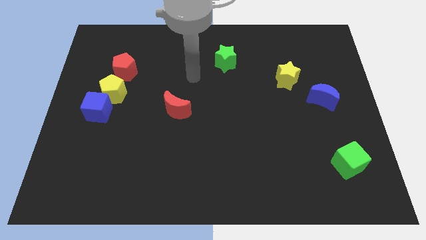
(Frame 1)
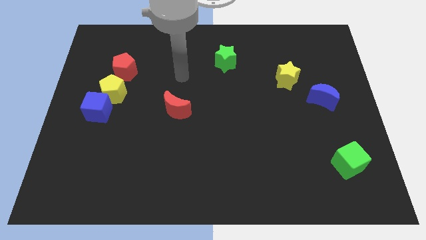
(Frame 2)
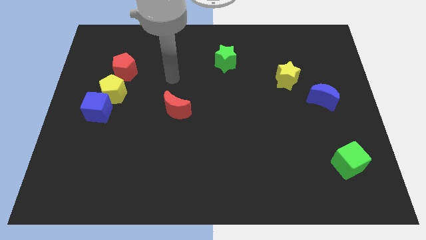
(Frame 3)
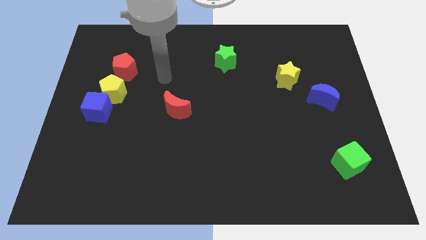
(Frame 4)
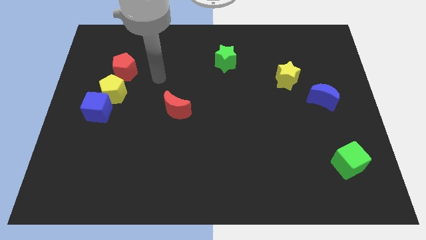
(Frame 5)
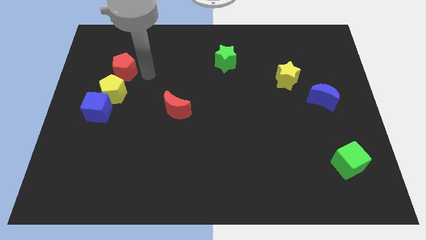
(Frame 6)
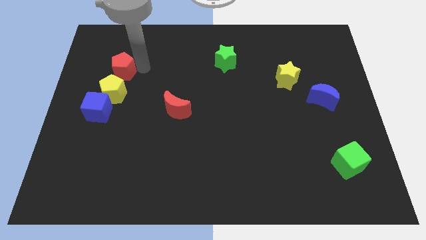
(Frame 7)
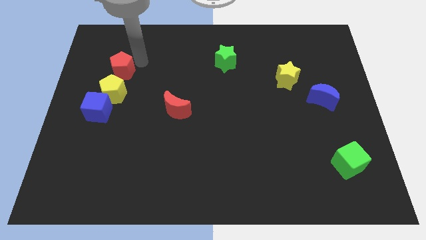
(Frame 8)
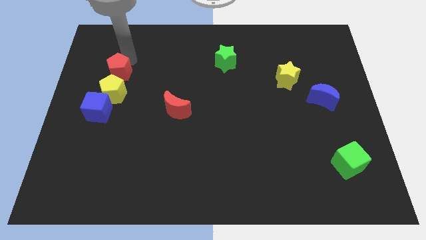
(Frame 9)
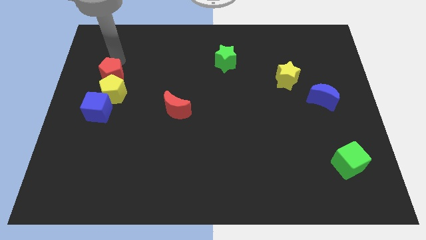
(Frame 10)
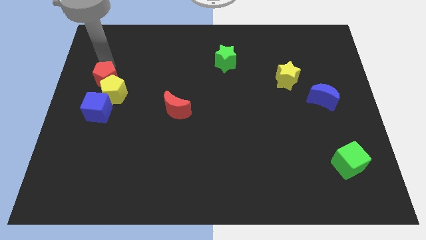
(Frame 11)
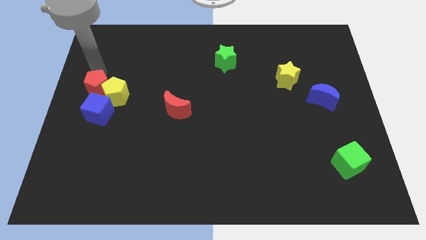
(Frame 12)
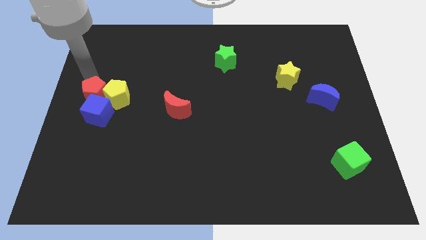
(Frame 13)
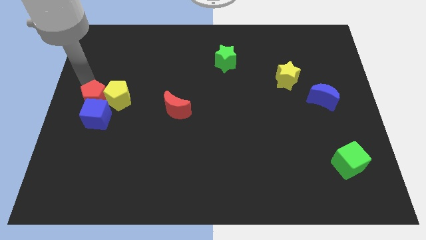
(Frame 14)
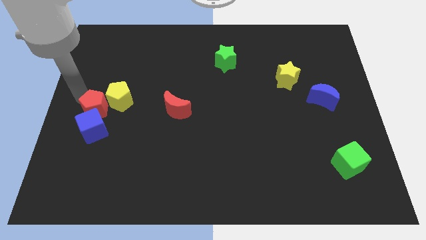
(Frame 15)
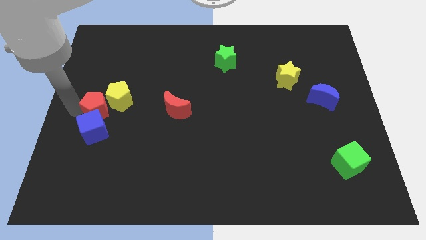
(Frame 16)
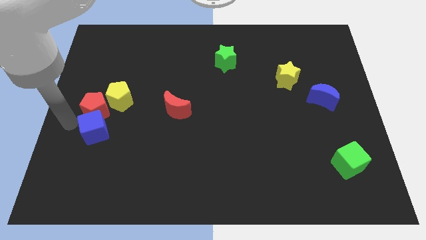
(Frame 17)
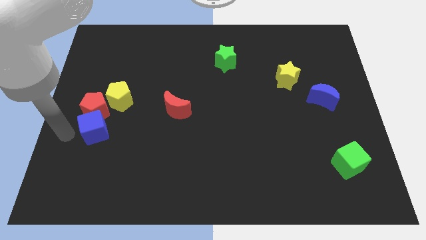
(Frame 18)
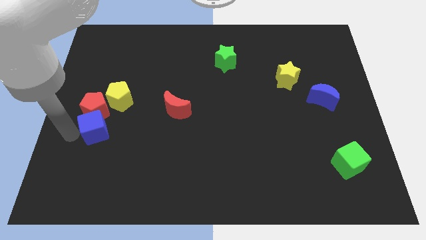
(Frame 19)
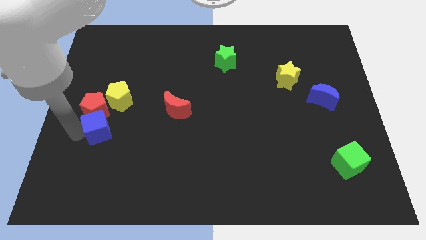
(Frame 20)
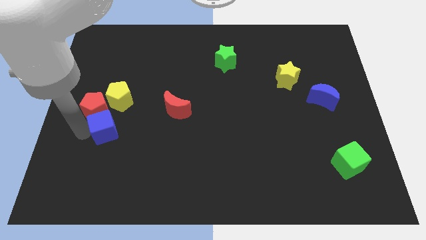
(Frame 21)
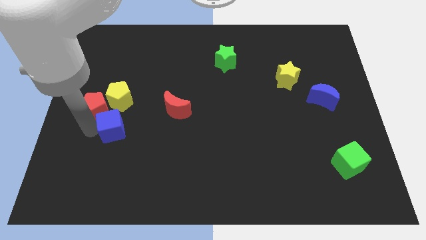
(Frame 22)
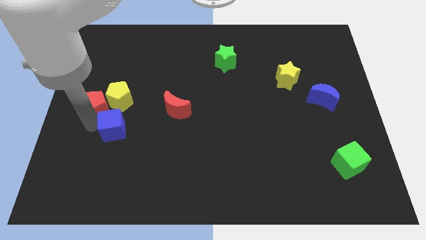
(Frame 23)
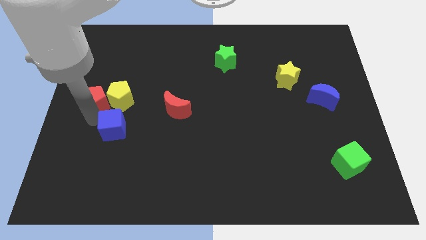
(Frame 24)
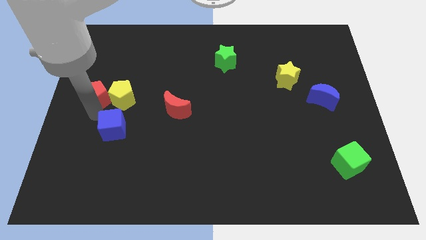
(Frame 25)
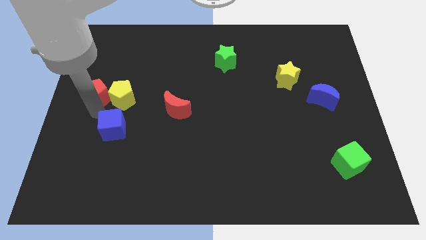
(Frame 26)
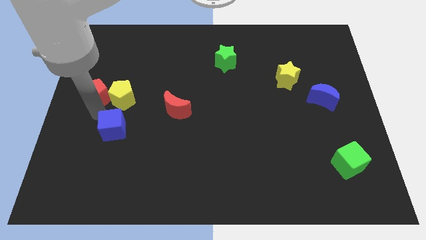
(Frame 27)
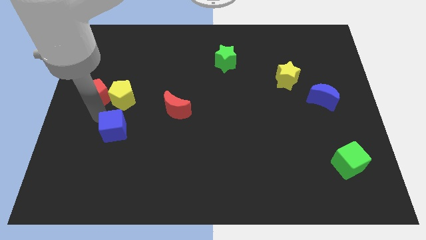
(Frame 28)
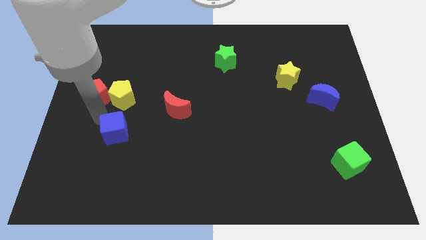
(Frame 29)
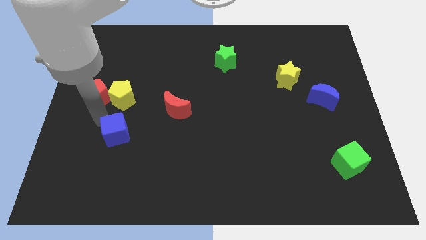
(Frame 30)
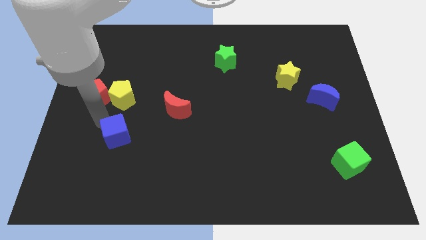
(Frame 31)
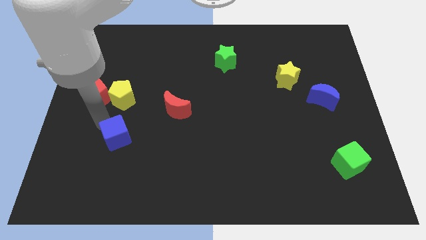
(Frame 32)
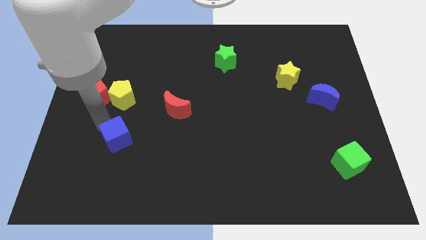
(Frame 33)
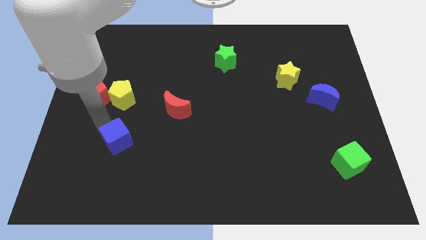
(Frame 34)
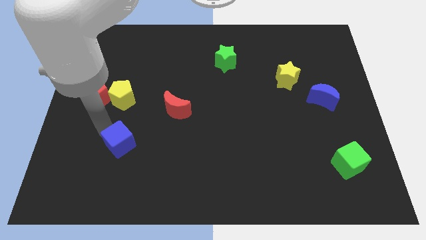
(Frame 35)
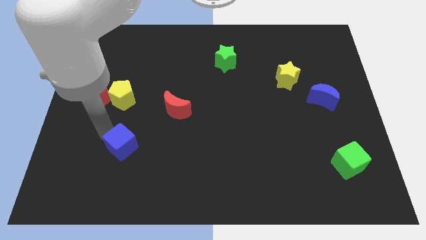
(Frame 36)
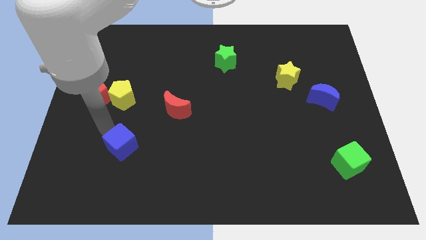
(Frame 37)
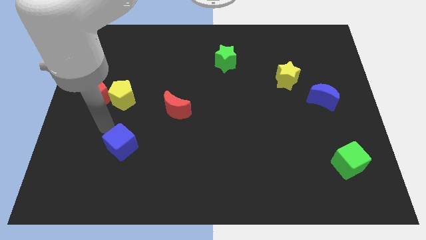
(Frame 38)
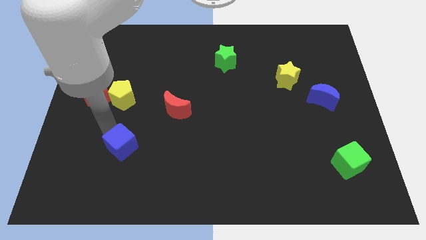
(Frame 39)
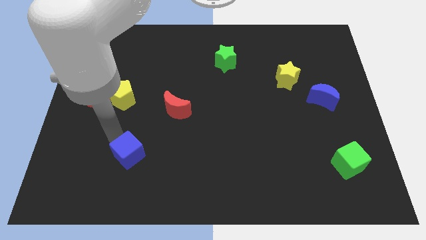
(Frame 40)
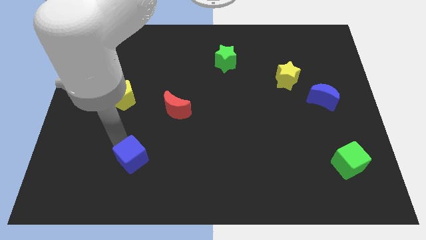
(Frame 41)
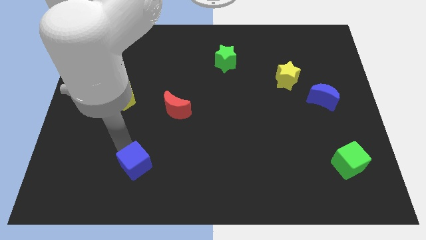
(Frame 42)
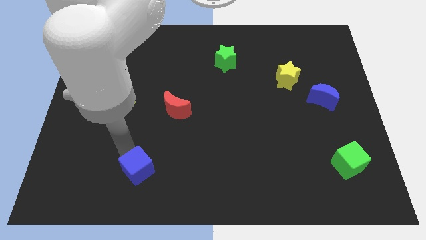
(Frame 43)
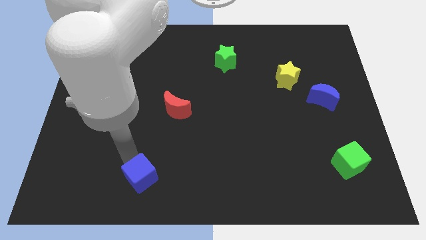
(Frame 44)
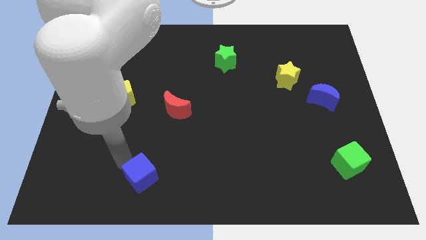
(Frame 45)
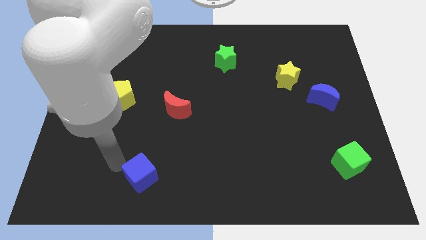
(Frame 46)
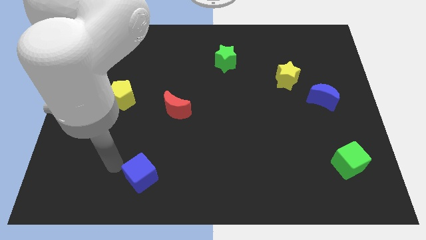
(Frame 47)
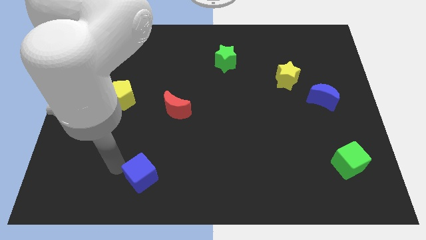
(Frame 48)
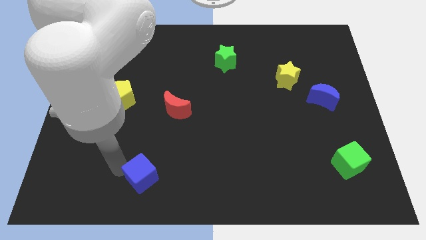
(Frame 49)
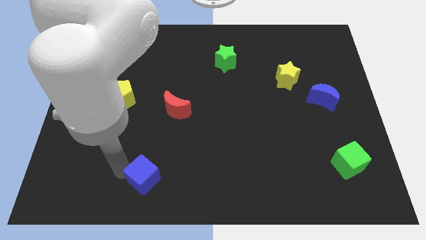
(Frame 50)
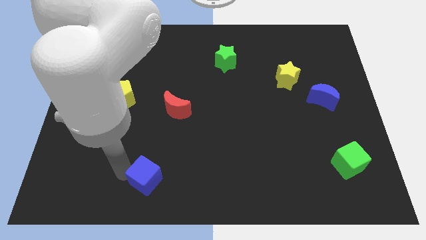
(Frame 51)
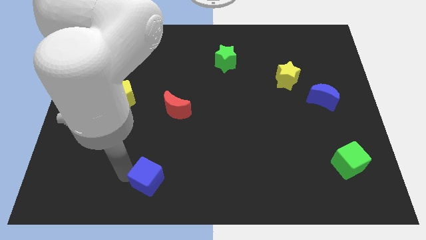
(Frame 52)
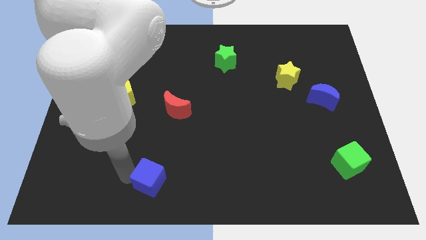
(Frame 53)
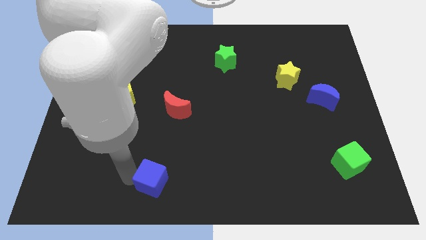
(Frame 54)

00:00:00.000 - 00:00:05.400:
move the blue cube to the bottom

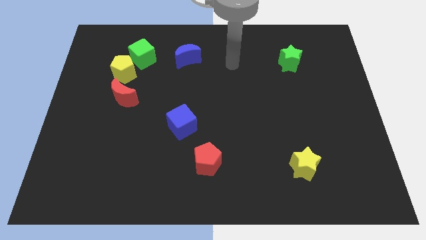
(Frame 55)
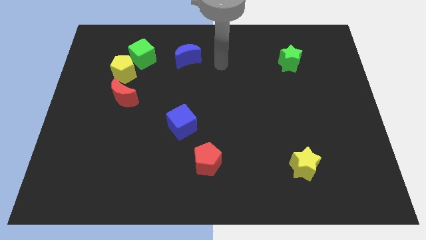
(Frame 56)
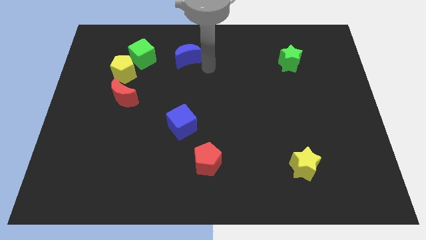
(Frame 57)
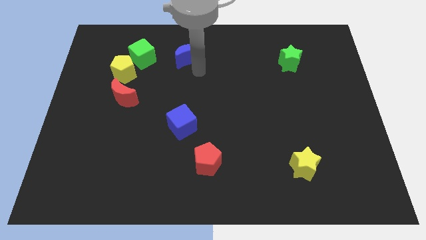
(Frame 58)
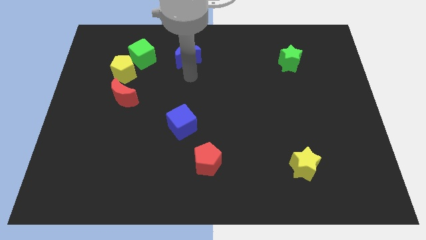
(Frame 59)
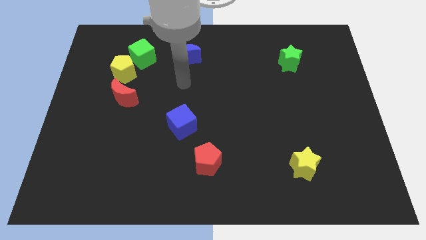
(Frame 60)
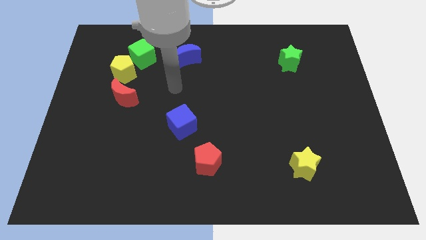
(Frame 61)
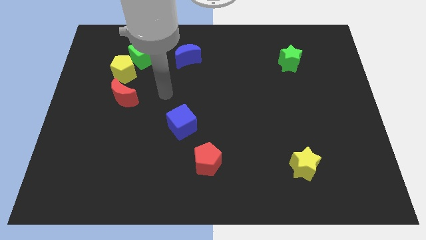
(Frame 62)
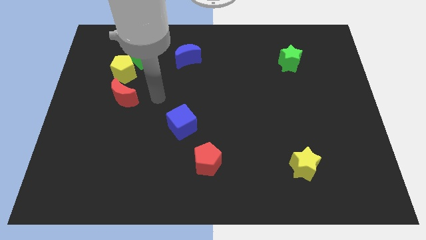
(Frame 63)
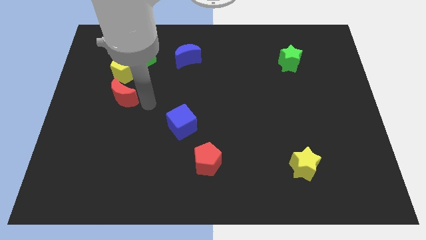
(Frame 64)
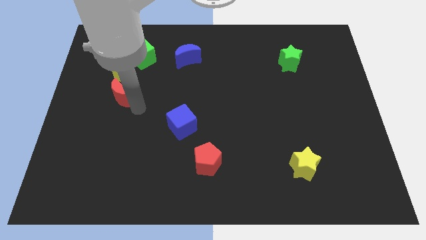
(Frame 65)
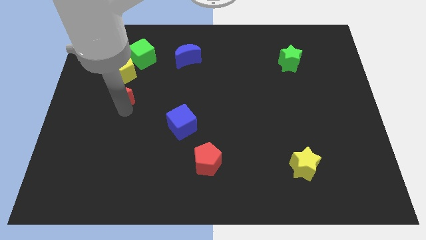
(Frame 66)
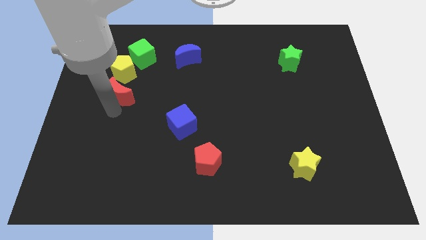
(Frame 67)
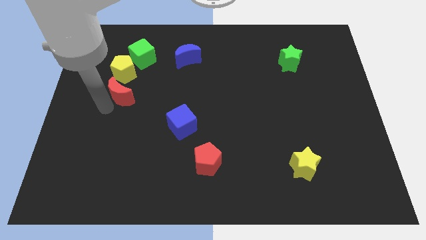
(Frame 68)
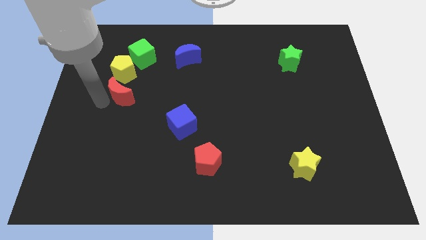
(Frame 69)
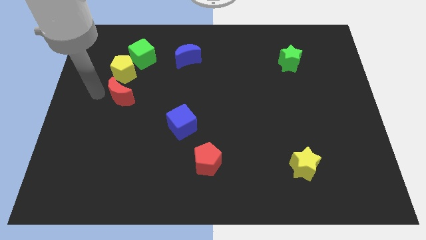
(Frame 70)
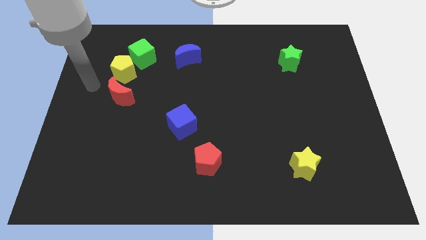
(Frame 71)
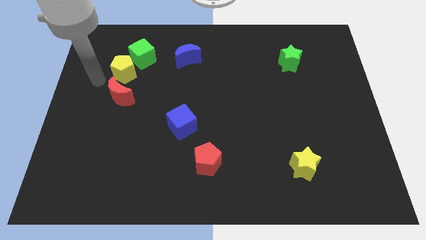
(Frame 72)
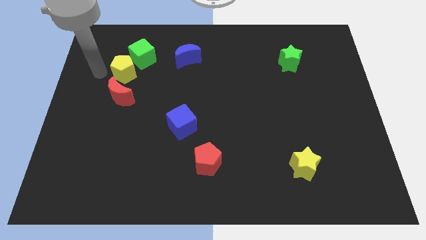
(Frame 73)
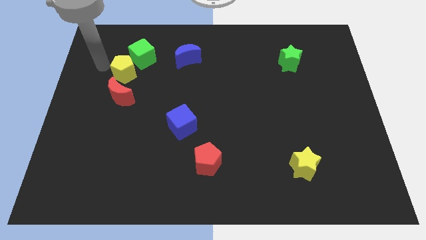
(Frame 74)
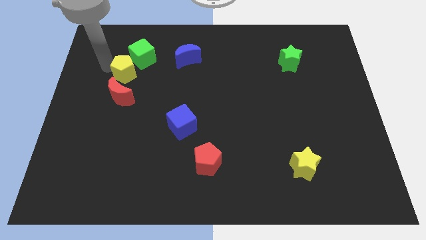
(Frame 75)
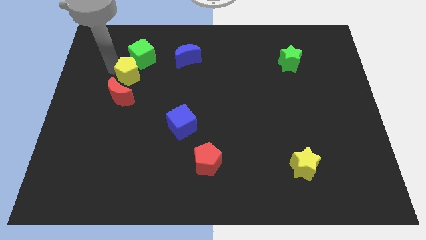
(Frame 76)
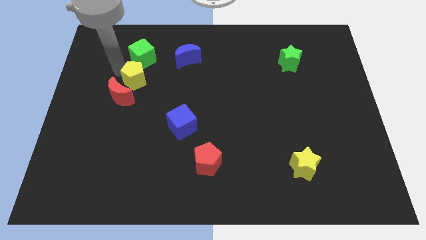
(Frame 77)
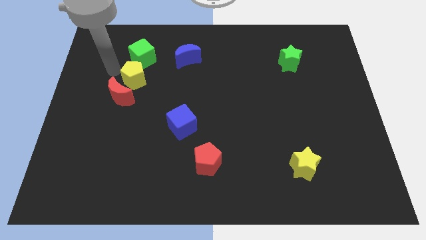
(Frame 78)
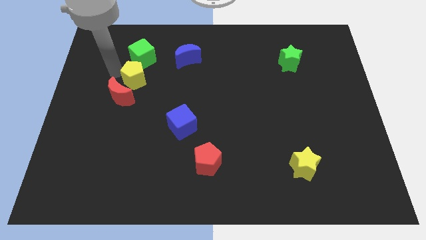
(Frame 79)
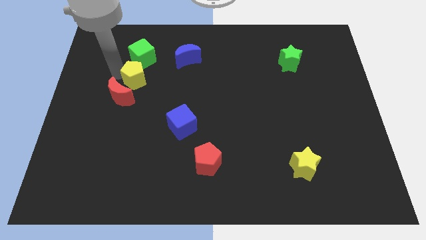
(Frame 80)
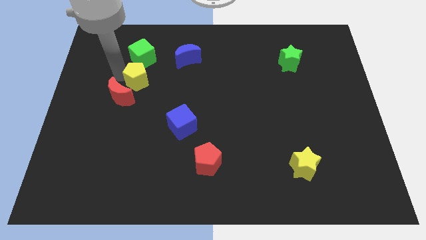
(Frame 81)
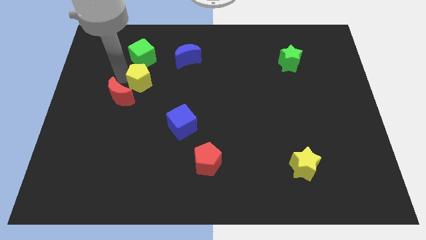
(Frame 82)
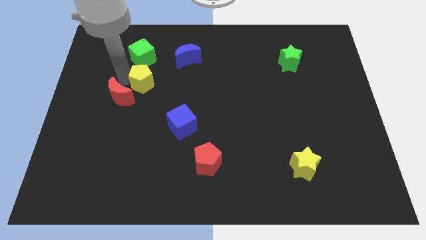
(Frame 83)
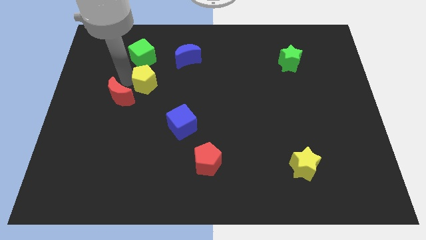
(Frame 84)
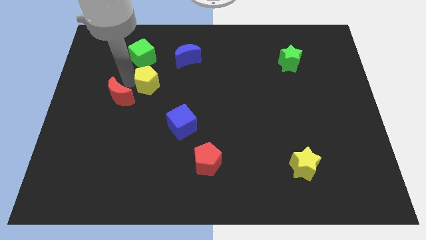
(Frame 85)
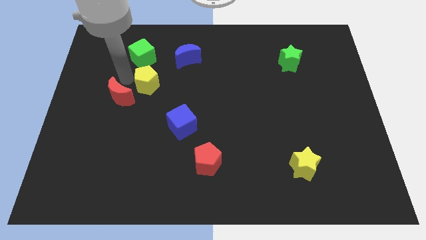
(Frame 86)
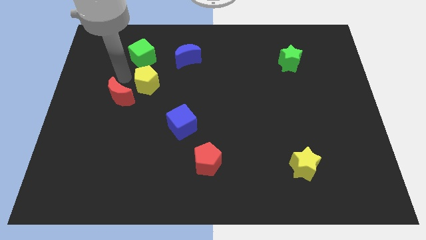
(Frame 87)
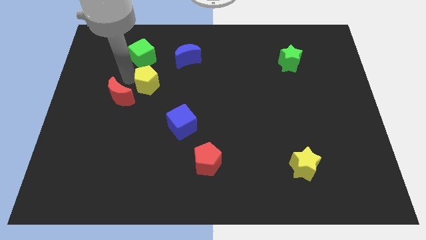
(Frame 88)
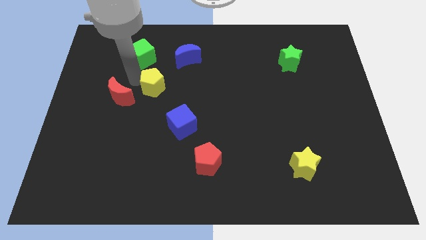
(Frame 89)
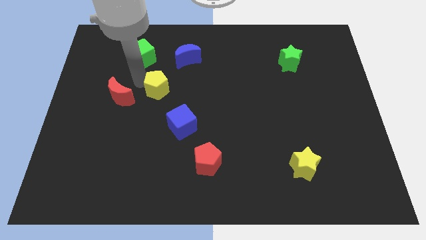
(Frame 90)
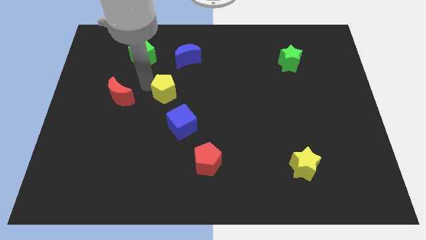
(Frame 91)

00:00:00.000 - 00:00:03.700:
slide the yellow pentagon to the center of the board
